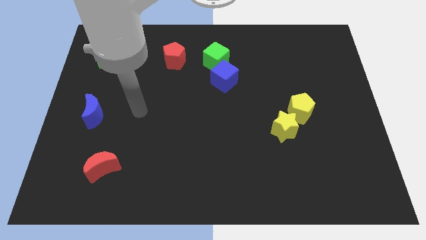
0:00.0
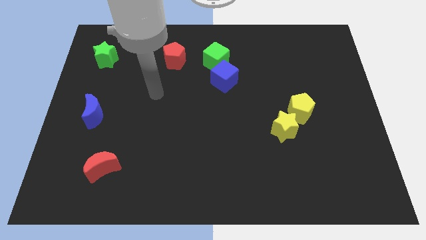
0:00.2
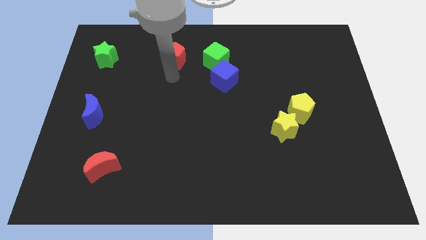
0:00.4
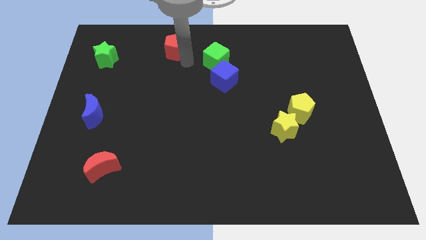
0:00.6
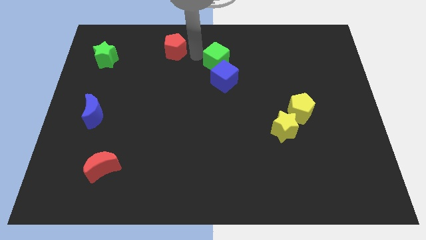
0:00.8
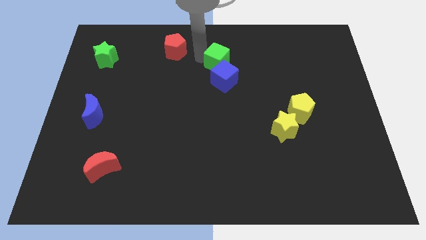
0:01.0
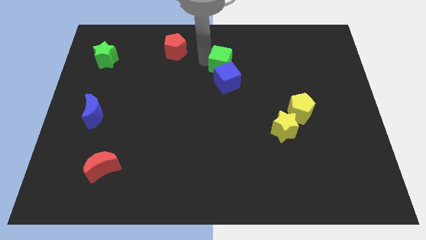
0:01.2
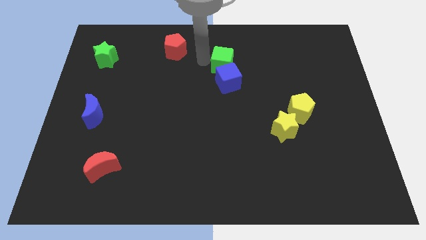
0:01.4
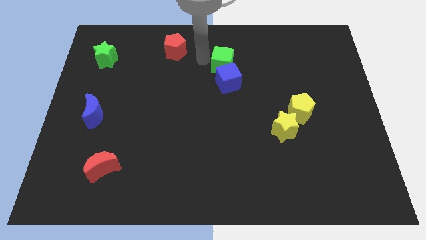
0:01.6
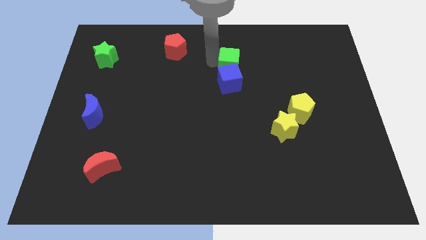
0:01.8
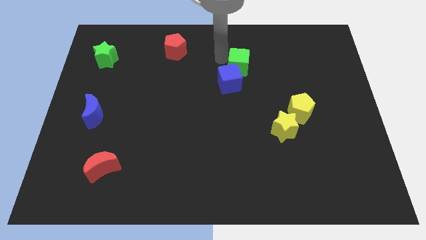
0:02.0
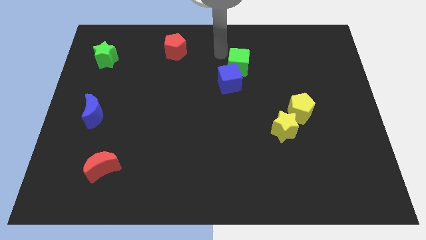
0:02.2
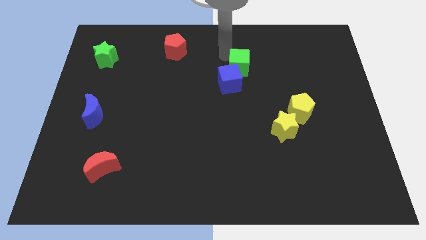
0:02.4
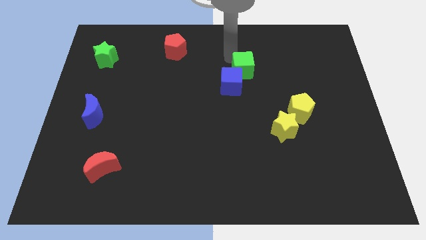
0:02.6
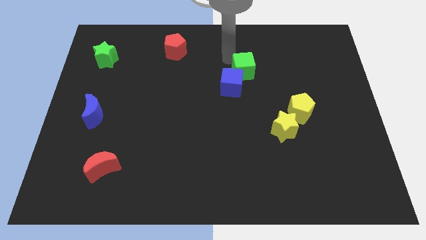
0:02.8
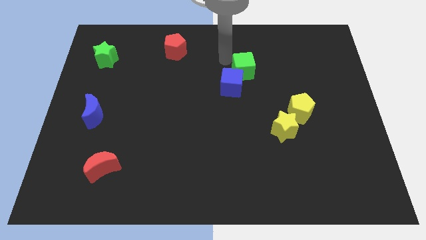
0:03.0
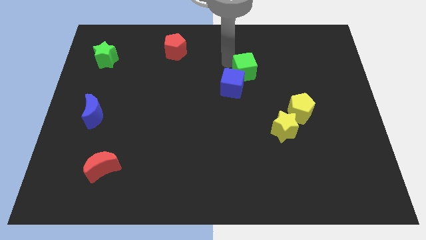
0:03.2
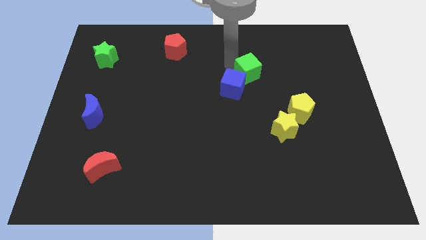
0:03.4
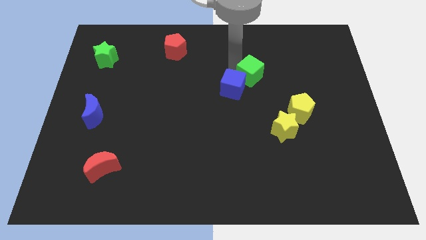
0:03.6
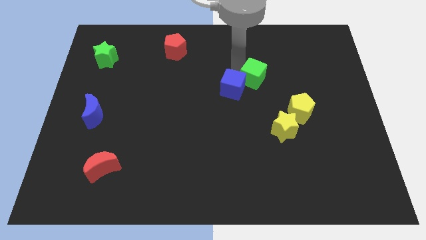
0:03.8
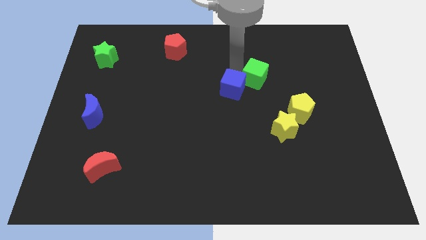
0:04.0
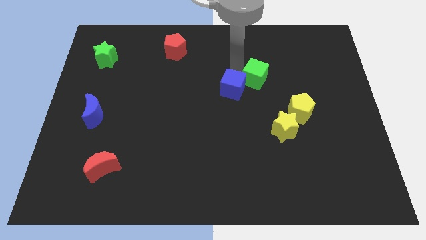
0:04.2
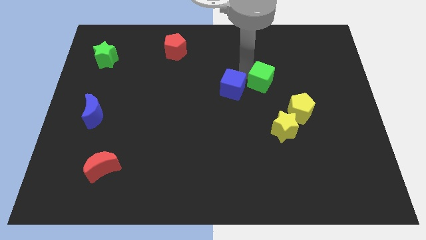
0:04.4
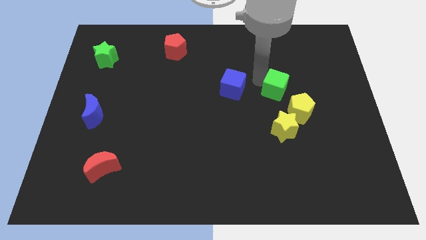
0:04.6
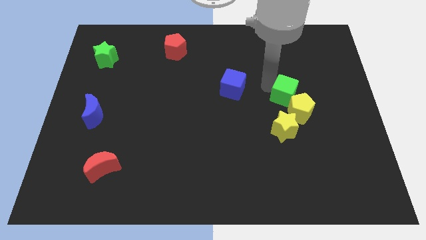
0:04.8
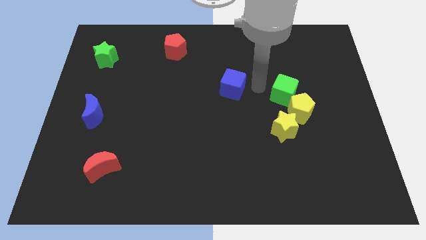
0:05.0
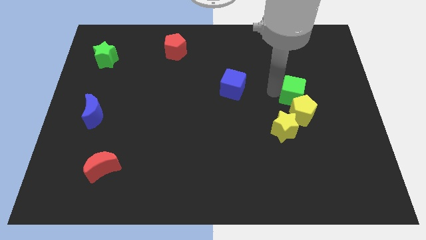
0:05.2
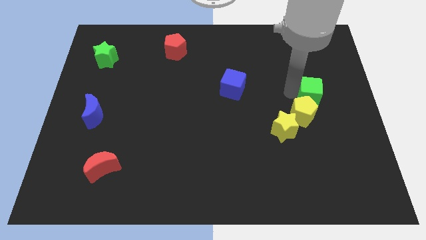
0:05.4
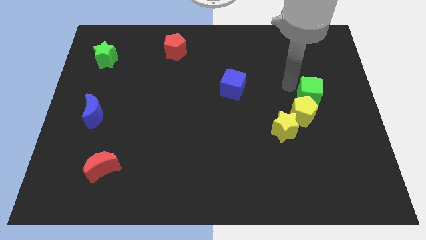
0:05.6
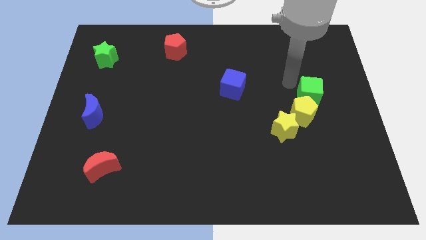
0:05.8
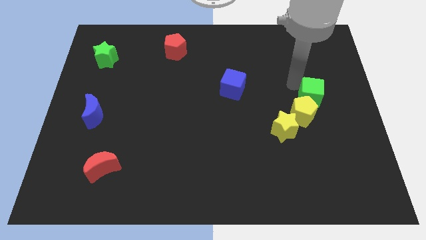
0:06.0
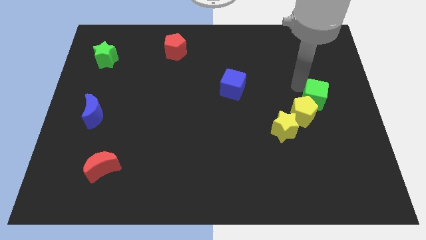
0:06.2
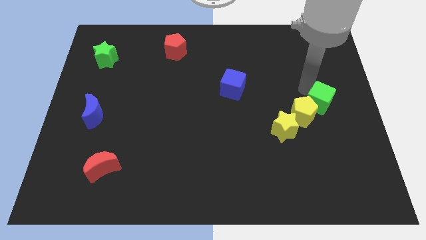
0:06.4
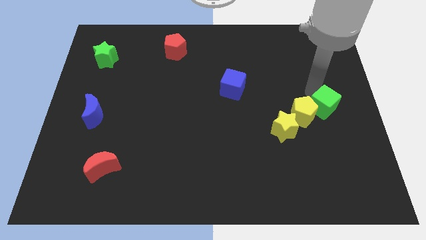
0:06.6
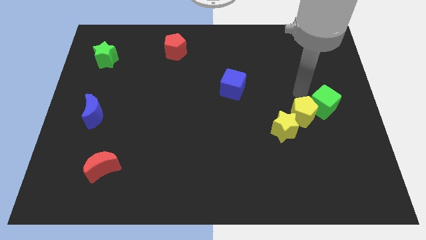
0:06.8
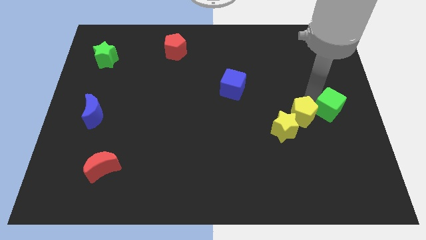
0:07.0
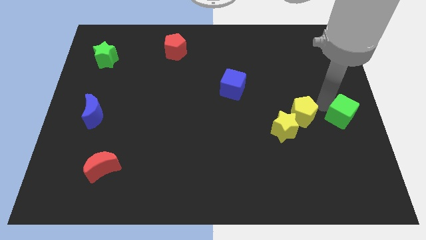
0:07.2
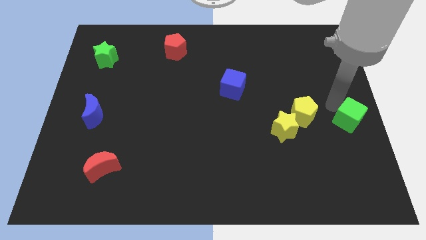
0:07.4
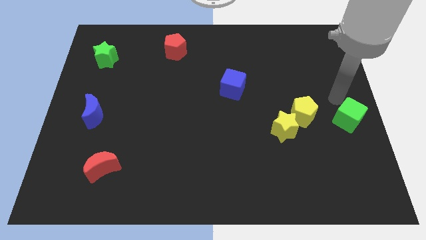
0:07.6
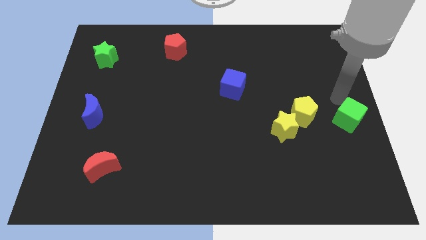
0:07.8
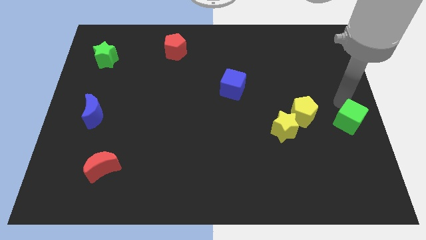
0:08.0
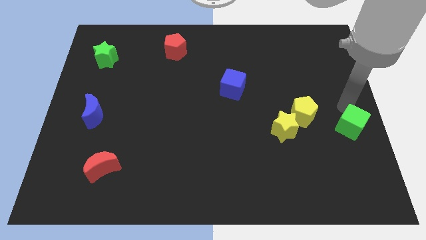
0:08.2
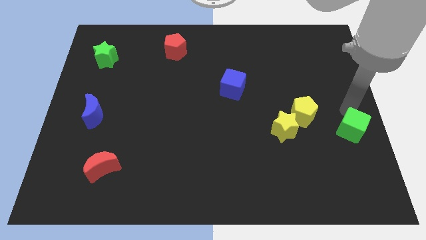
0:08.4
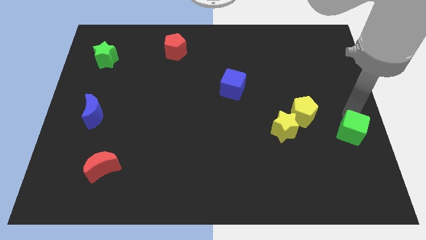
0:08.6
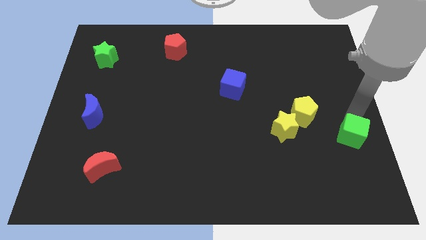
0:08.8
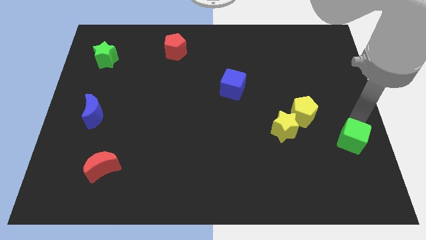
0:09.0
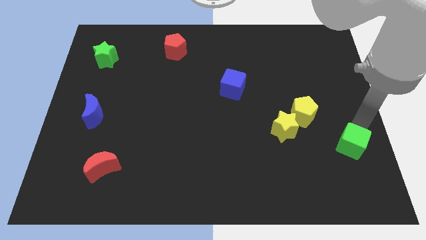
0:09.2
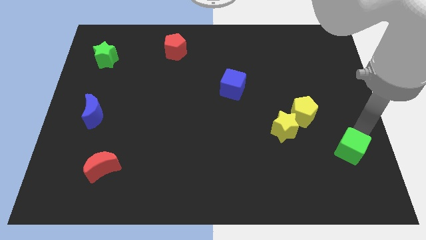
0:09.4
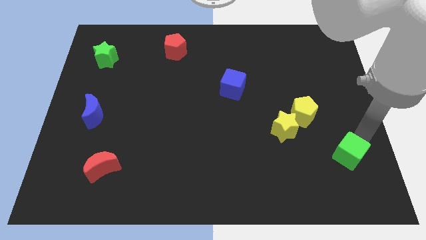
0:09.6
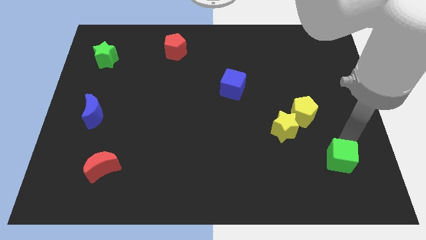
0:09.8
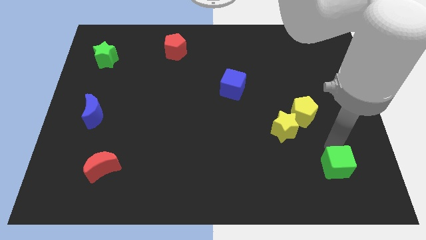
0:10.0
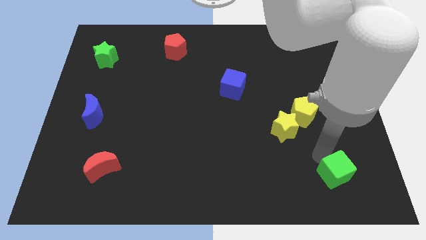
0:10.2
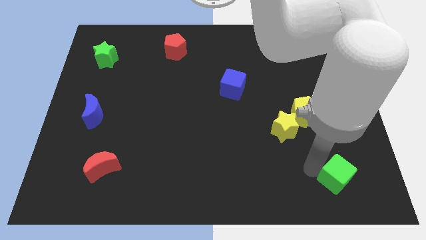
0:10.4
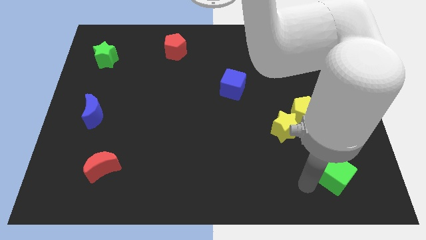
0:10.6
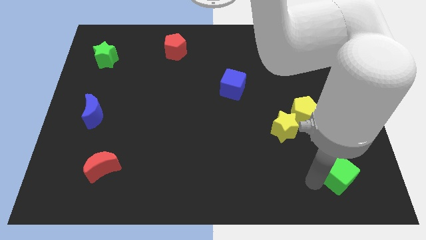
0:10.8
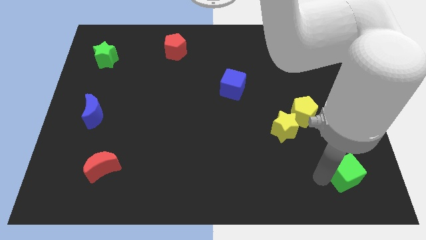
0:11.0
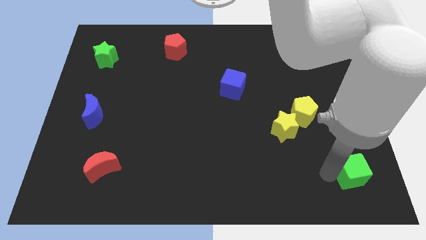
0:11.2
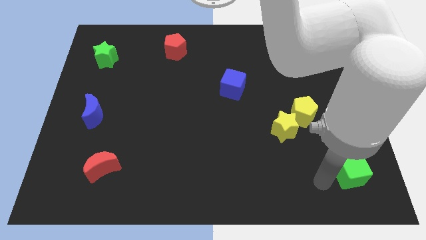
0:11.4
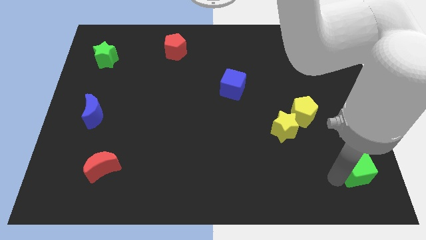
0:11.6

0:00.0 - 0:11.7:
move the green cube to the bottom right of the board

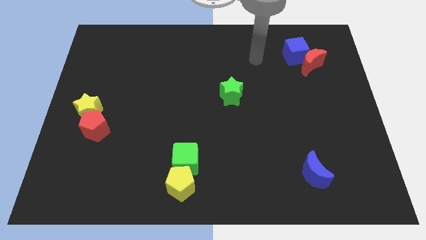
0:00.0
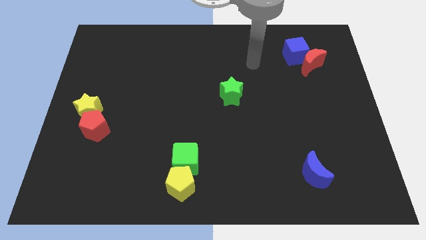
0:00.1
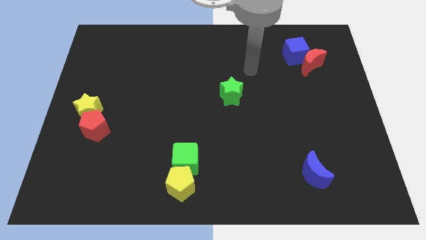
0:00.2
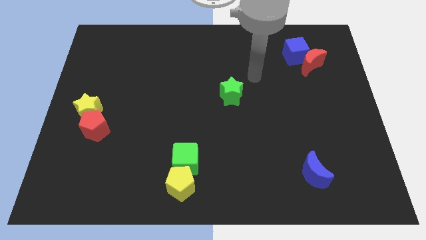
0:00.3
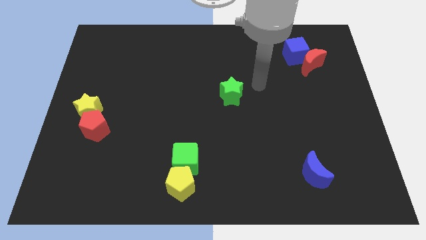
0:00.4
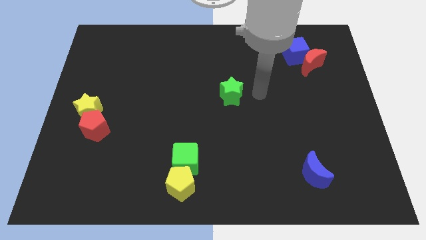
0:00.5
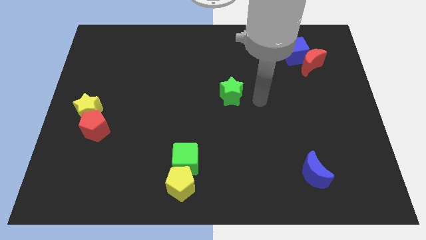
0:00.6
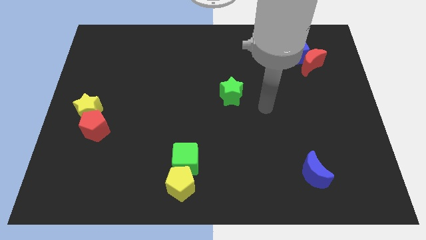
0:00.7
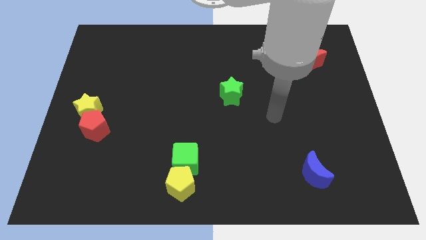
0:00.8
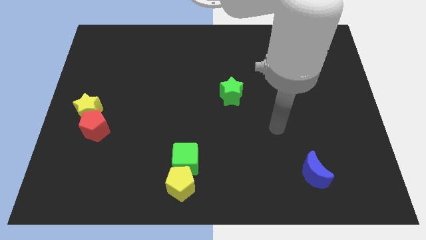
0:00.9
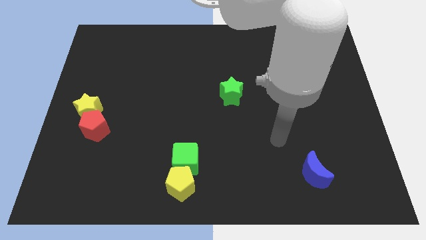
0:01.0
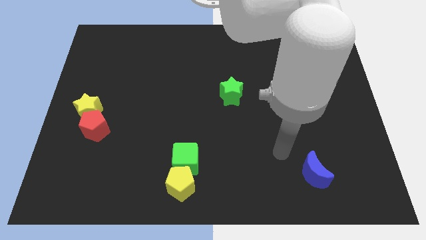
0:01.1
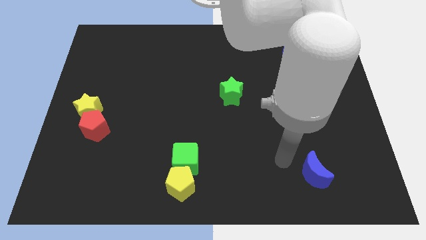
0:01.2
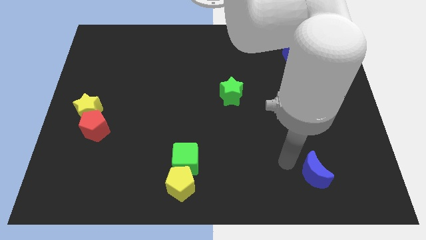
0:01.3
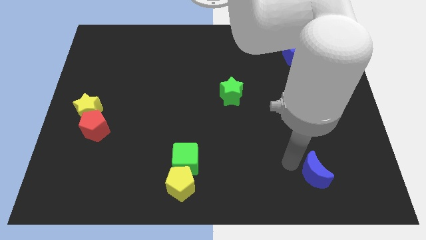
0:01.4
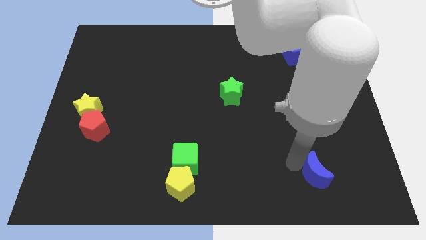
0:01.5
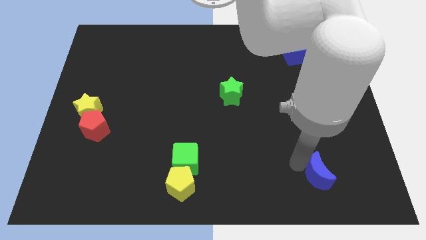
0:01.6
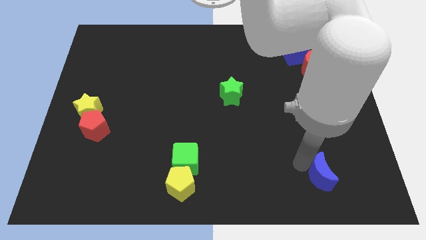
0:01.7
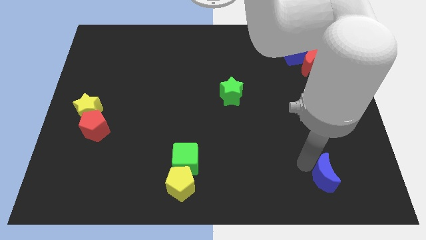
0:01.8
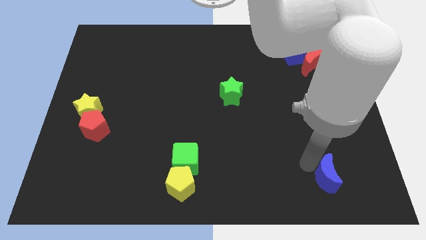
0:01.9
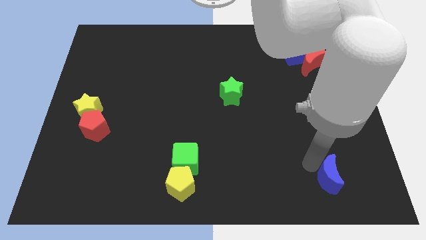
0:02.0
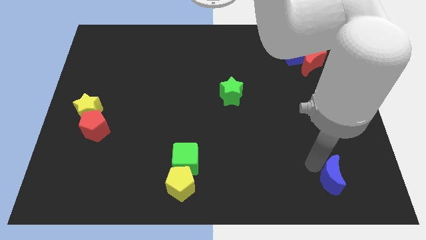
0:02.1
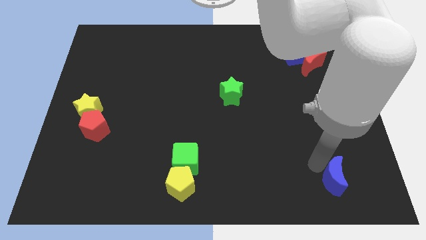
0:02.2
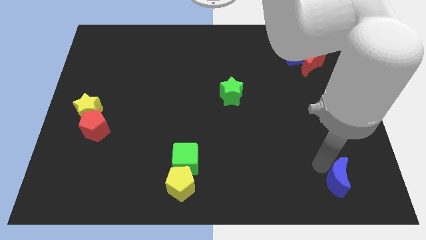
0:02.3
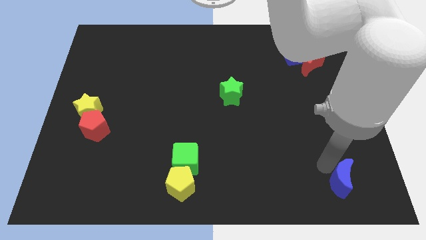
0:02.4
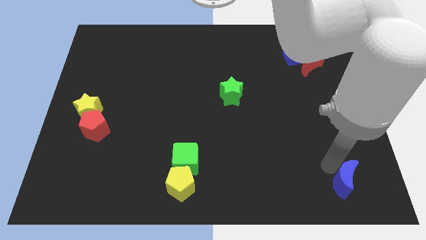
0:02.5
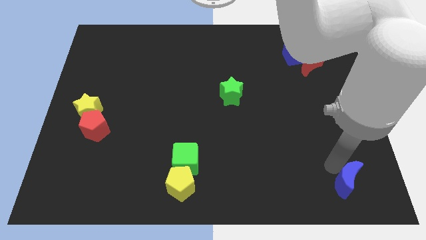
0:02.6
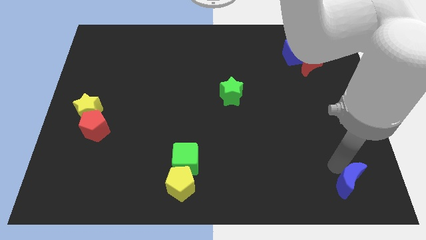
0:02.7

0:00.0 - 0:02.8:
put the blue moon to the bottom right
